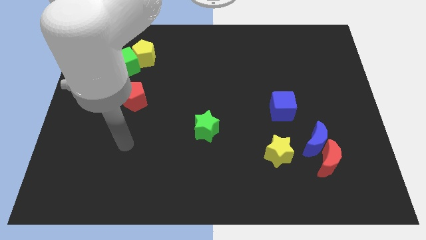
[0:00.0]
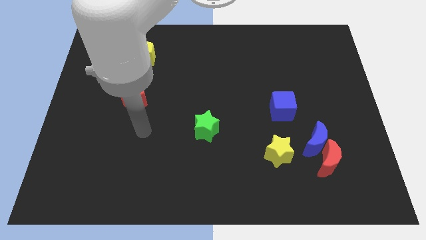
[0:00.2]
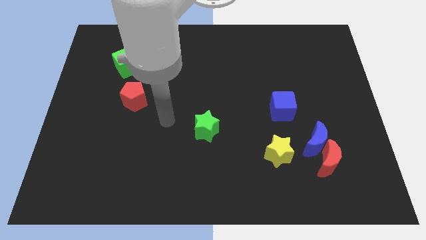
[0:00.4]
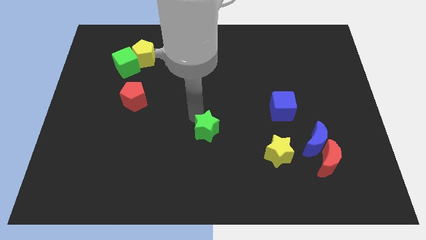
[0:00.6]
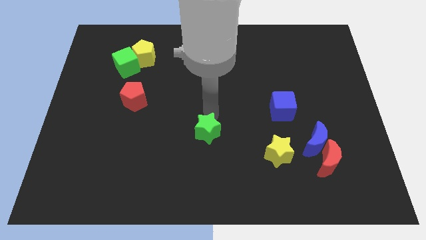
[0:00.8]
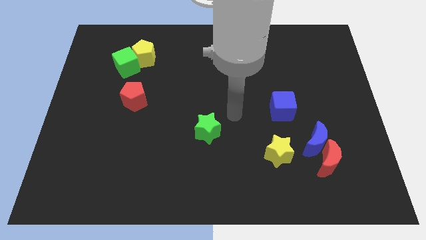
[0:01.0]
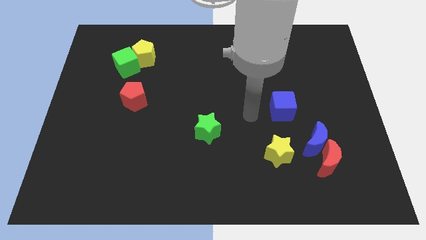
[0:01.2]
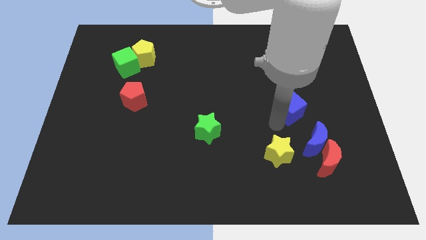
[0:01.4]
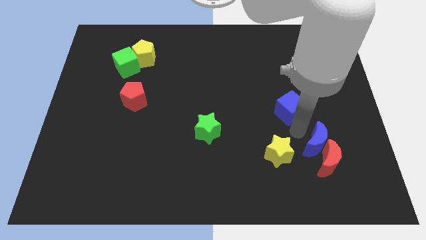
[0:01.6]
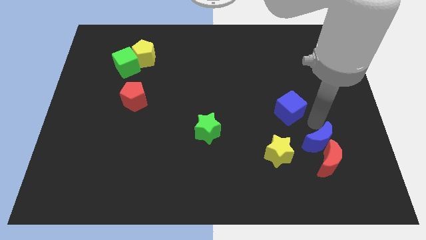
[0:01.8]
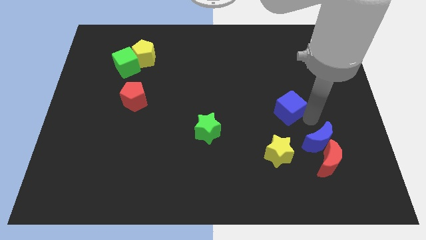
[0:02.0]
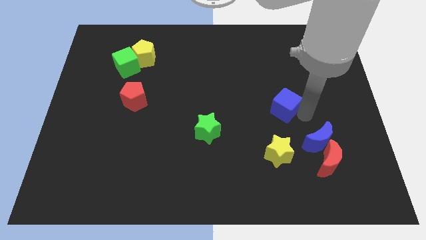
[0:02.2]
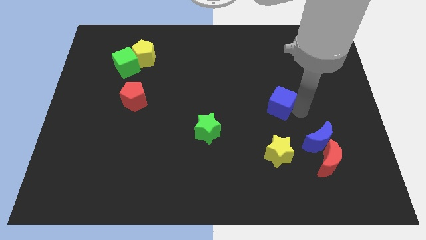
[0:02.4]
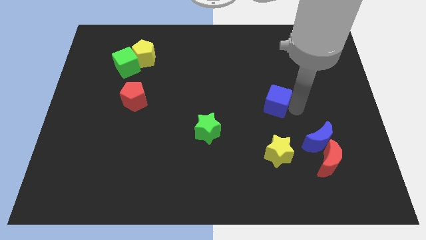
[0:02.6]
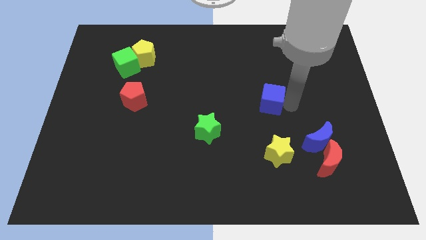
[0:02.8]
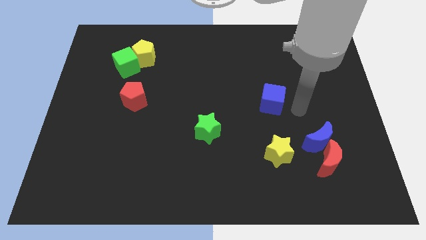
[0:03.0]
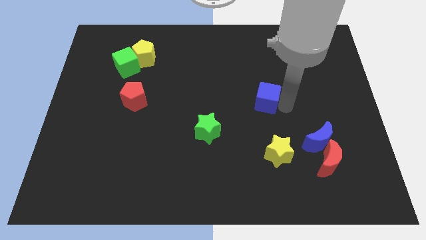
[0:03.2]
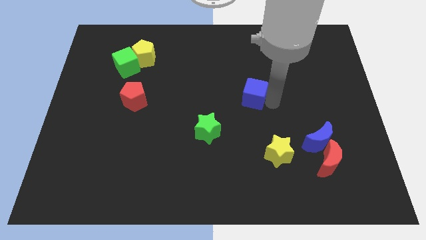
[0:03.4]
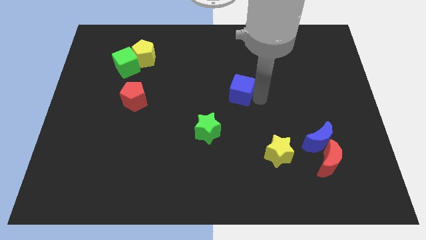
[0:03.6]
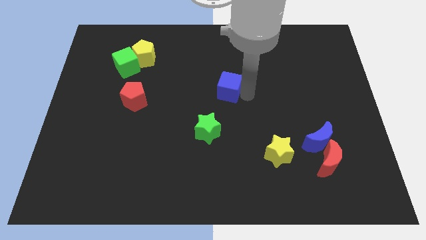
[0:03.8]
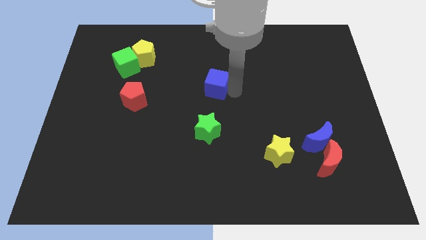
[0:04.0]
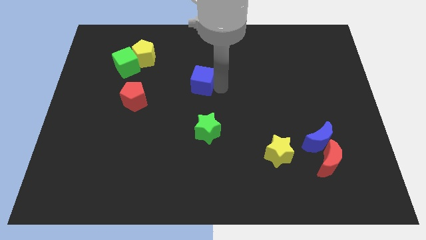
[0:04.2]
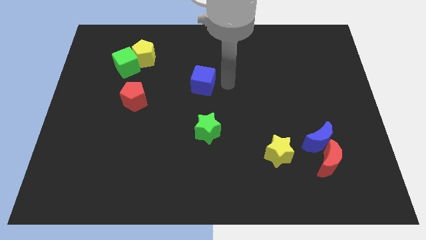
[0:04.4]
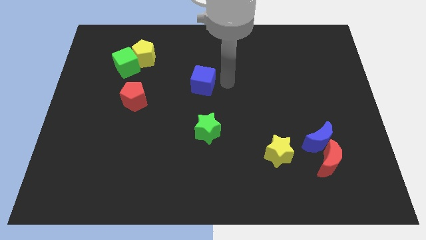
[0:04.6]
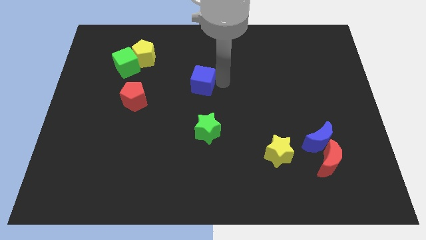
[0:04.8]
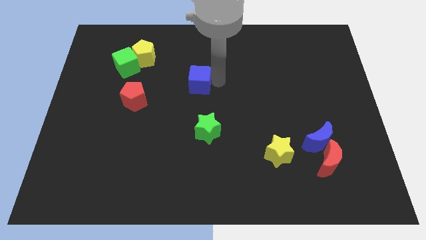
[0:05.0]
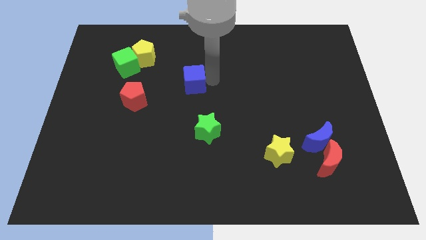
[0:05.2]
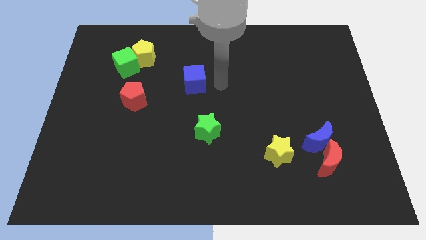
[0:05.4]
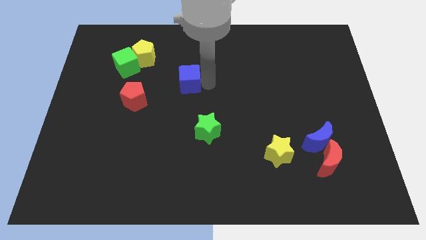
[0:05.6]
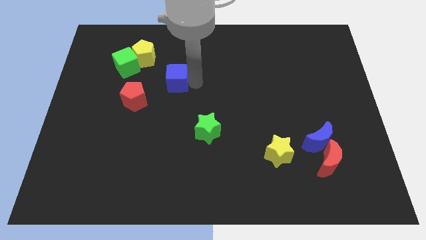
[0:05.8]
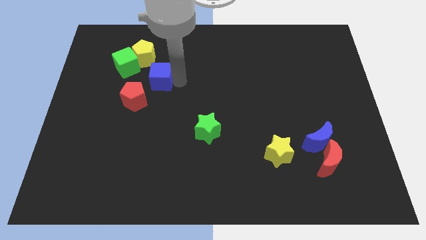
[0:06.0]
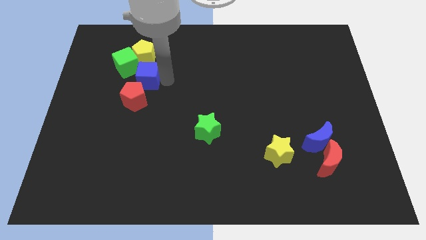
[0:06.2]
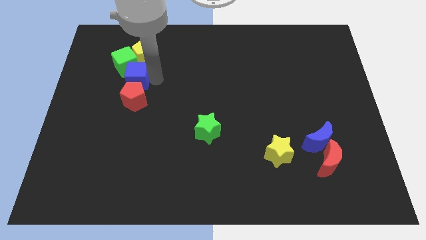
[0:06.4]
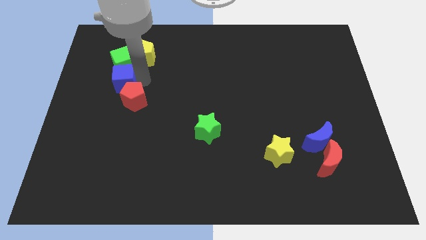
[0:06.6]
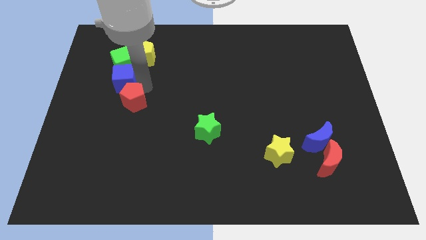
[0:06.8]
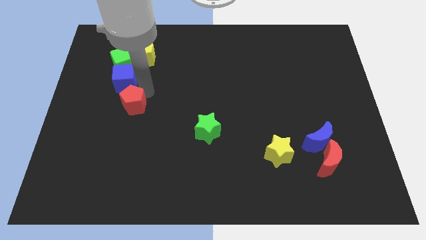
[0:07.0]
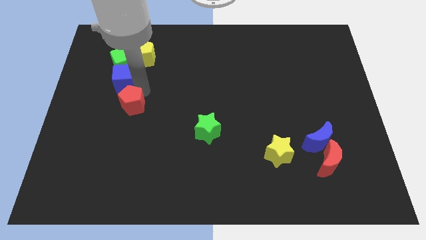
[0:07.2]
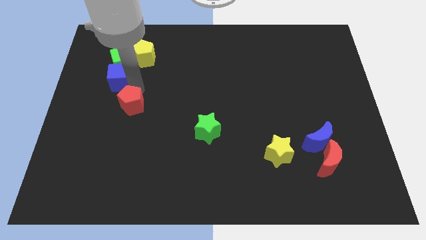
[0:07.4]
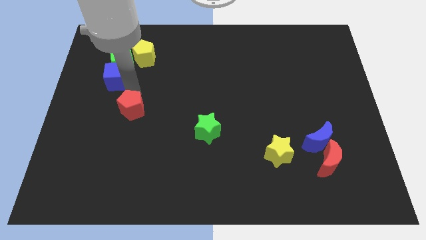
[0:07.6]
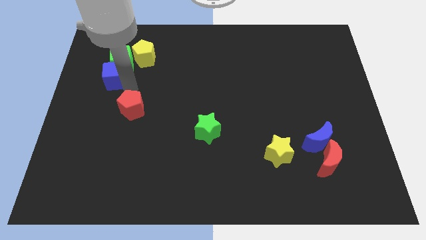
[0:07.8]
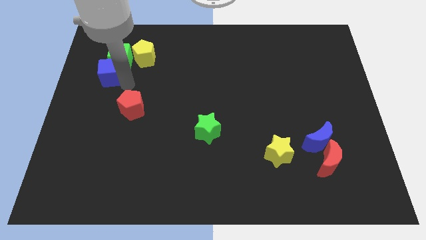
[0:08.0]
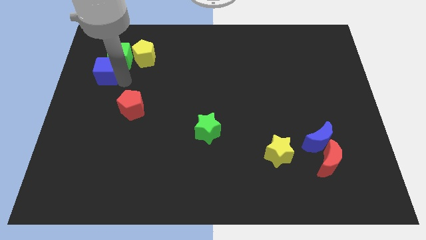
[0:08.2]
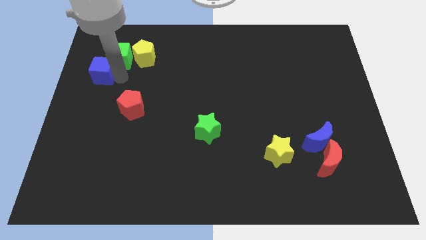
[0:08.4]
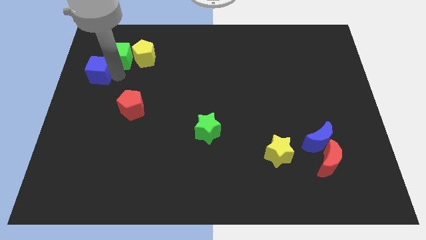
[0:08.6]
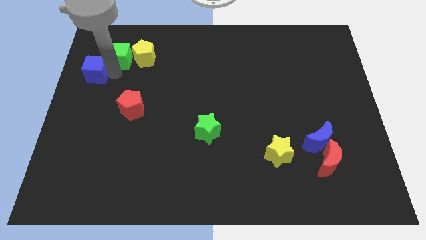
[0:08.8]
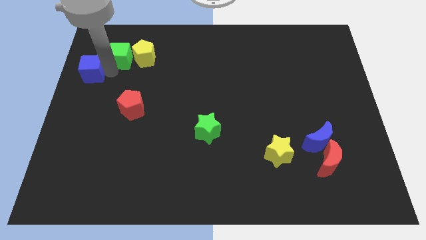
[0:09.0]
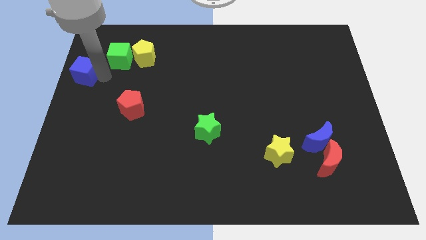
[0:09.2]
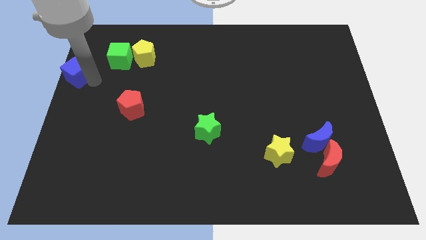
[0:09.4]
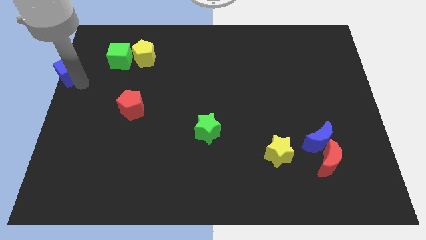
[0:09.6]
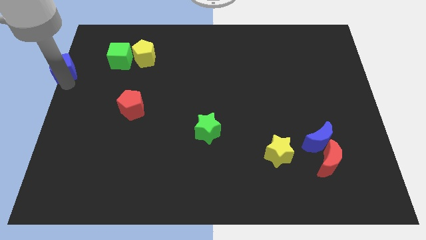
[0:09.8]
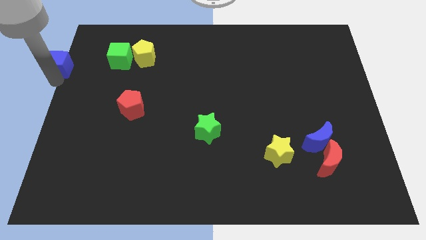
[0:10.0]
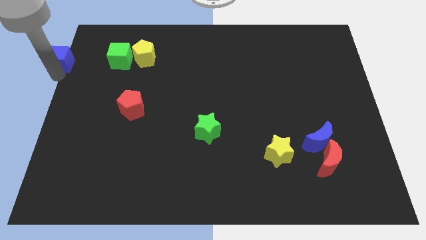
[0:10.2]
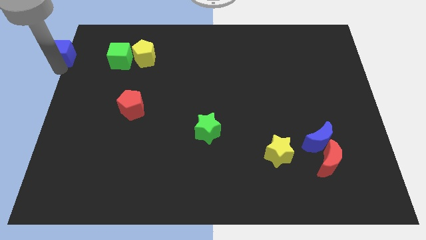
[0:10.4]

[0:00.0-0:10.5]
put the blue cube to the upper left corner

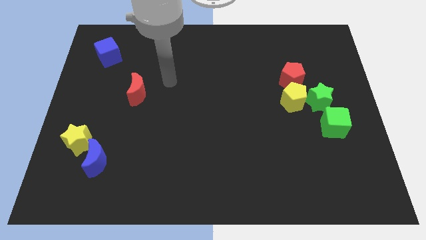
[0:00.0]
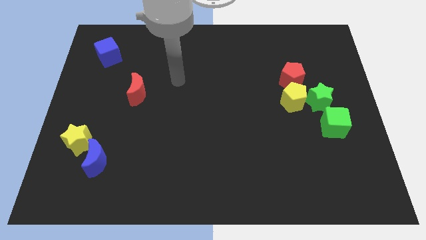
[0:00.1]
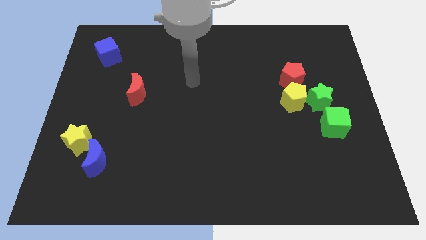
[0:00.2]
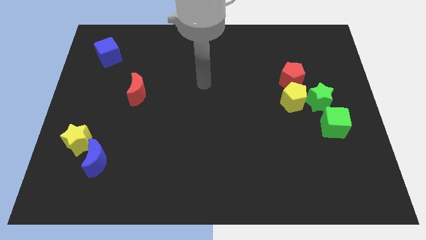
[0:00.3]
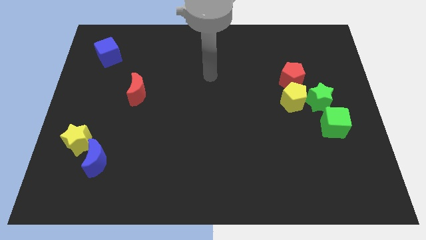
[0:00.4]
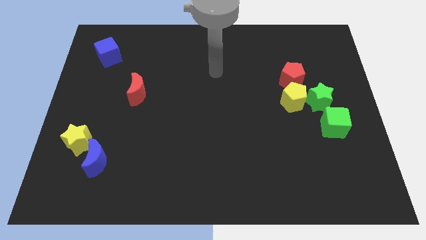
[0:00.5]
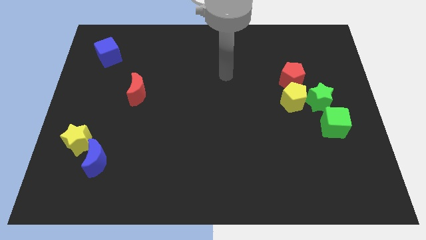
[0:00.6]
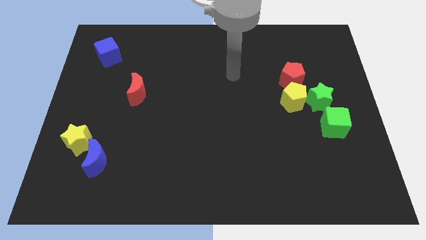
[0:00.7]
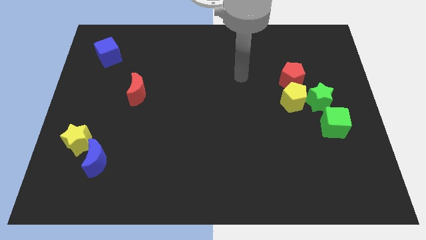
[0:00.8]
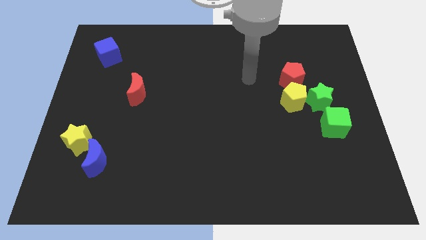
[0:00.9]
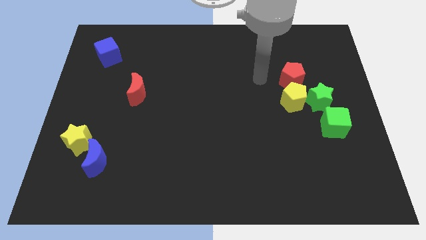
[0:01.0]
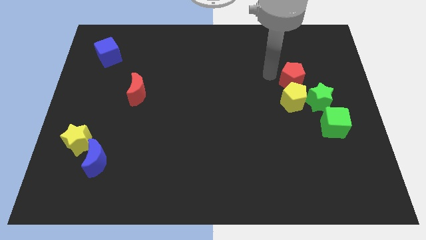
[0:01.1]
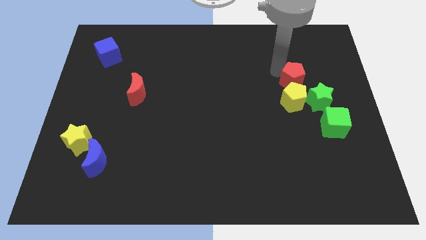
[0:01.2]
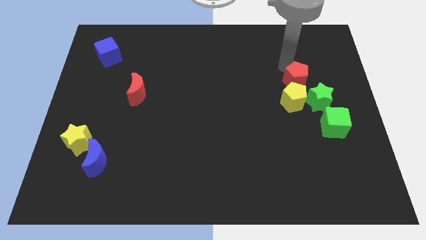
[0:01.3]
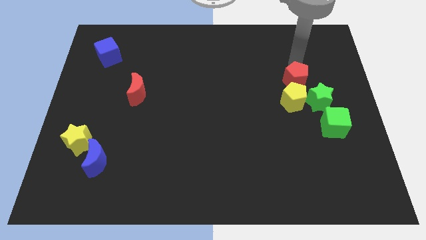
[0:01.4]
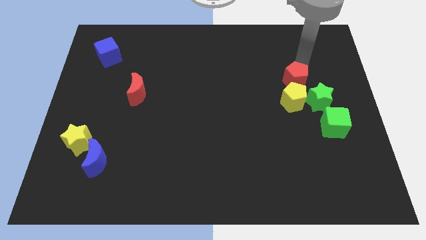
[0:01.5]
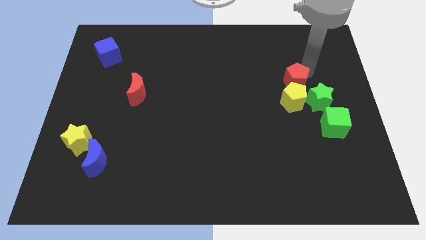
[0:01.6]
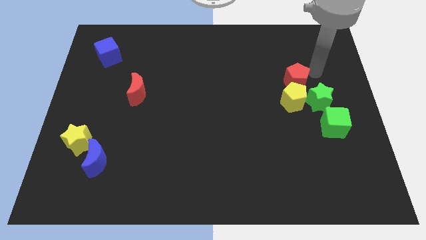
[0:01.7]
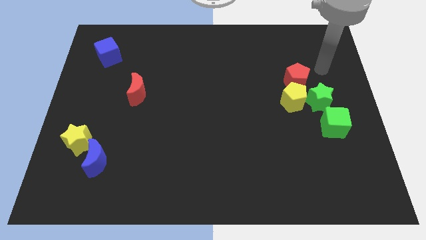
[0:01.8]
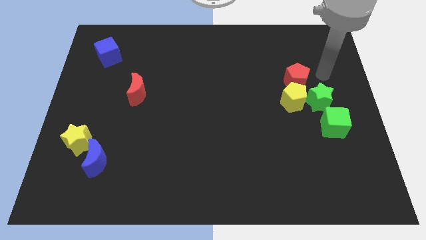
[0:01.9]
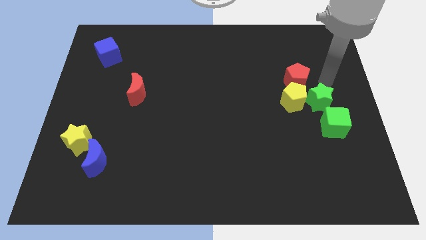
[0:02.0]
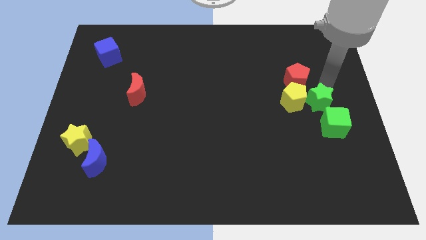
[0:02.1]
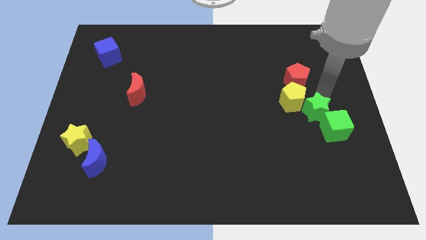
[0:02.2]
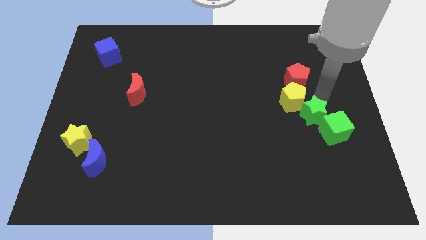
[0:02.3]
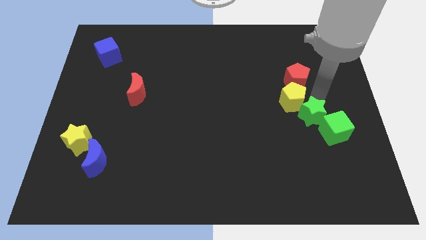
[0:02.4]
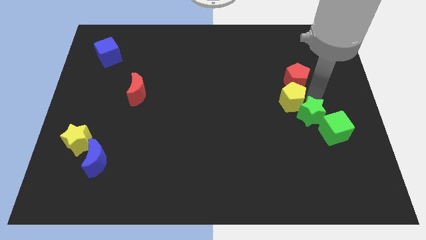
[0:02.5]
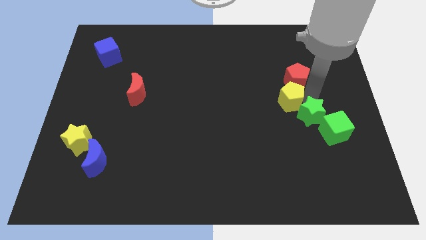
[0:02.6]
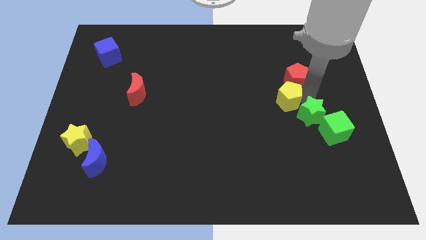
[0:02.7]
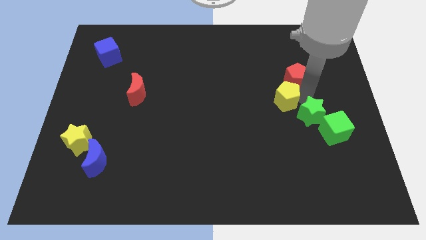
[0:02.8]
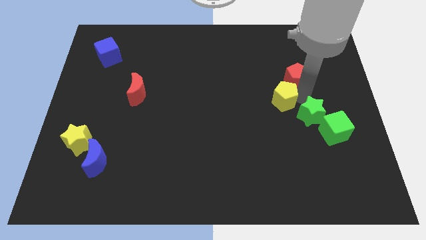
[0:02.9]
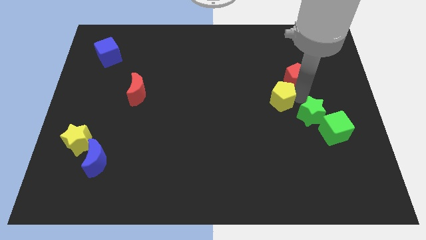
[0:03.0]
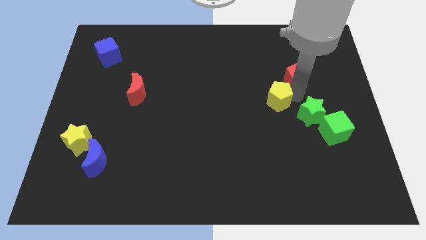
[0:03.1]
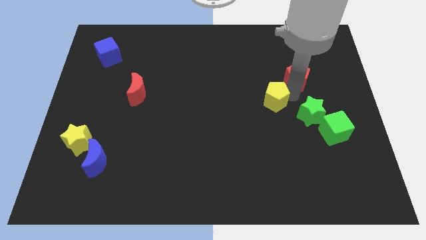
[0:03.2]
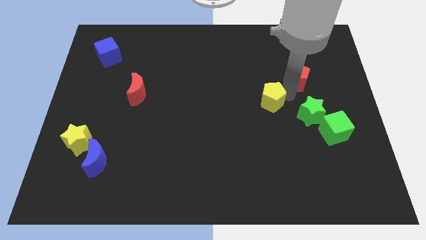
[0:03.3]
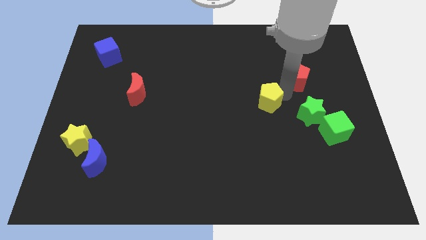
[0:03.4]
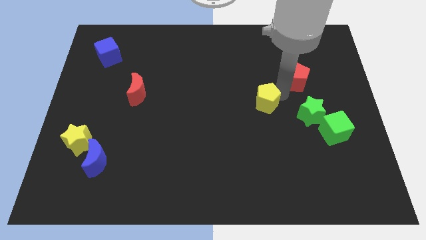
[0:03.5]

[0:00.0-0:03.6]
put the yellow pentagon to the middle
